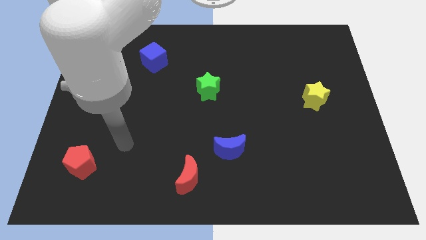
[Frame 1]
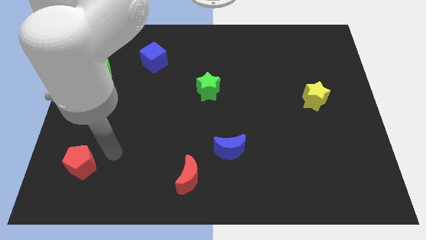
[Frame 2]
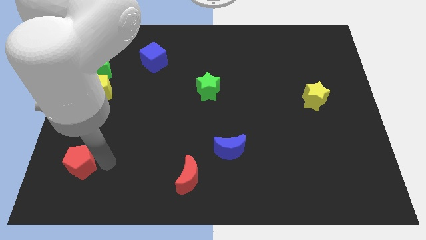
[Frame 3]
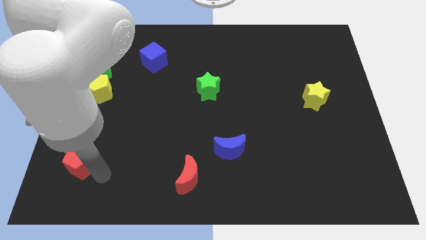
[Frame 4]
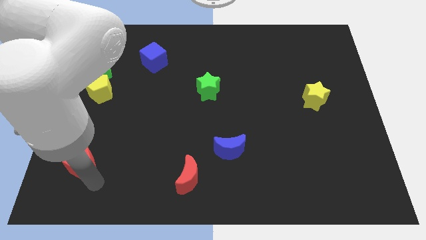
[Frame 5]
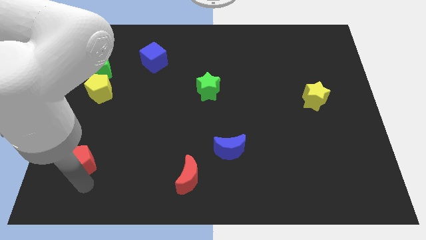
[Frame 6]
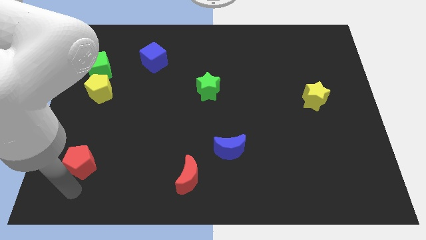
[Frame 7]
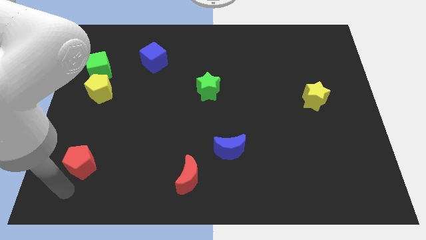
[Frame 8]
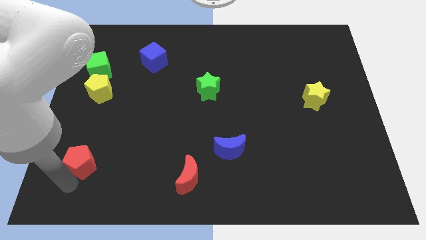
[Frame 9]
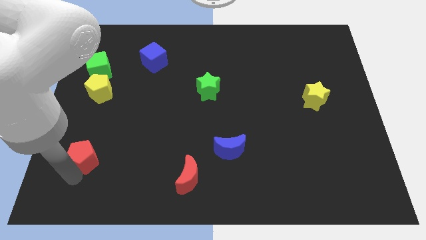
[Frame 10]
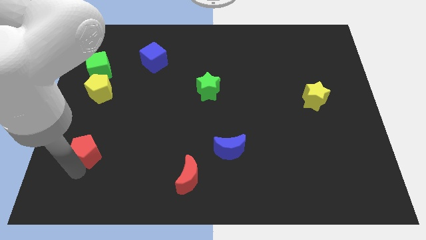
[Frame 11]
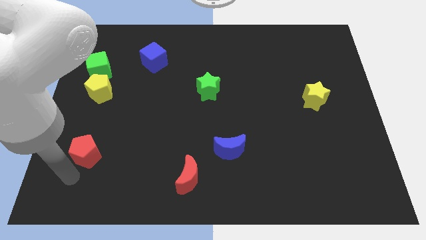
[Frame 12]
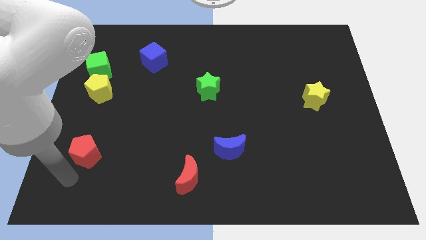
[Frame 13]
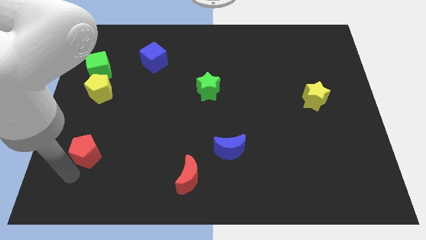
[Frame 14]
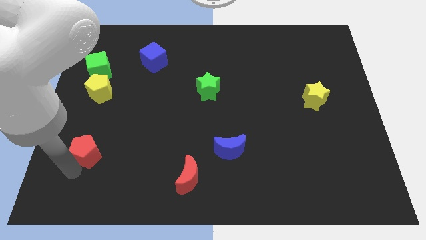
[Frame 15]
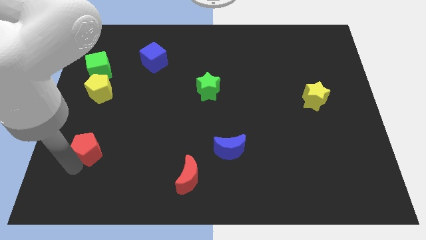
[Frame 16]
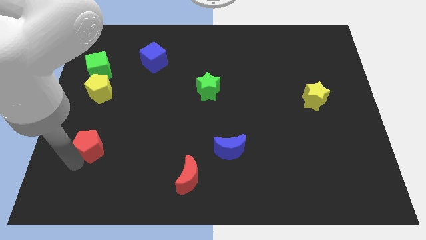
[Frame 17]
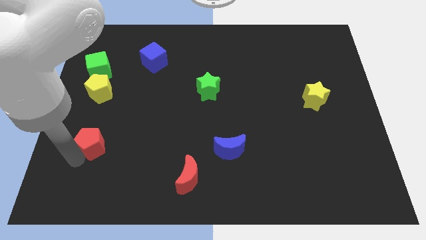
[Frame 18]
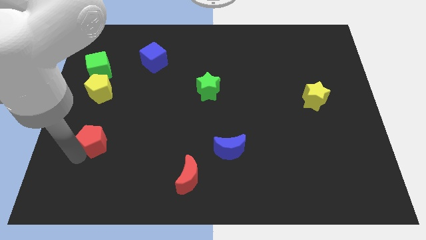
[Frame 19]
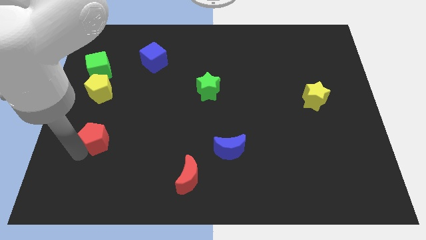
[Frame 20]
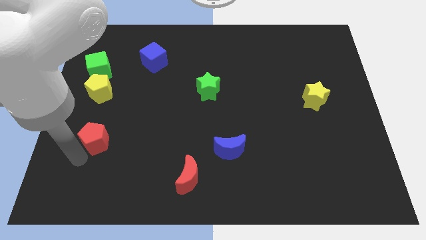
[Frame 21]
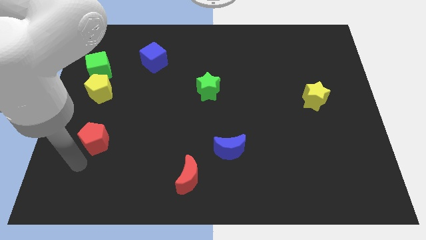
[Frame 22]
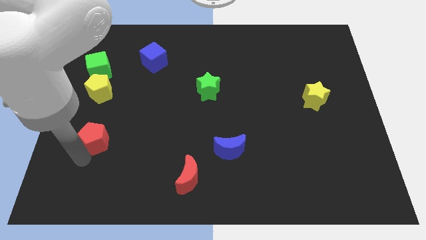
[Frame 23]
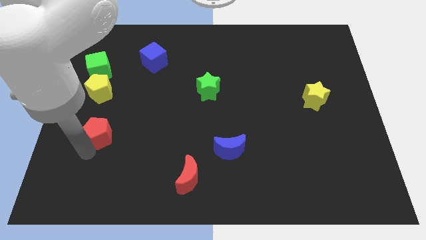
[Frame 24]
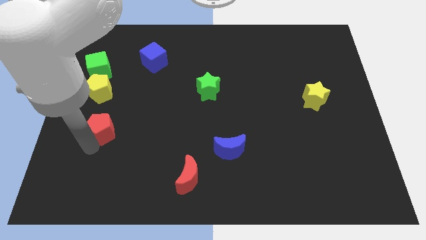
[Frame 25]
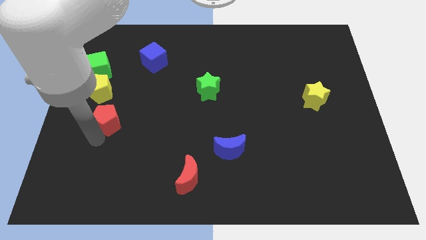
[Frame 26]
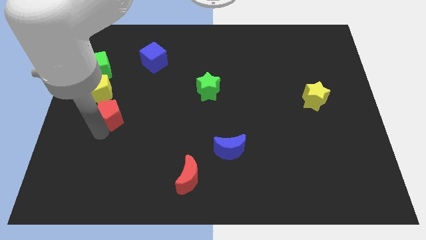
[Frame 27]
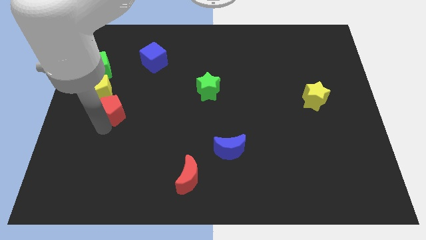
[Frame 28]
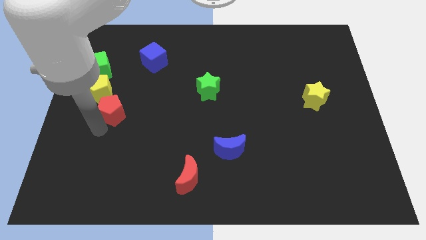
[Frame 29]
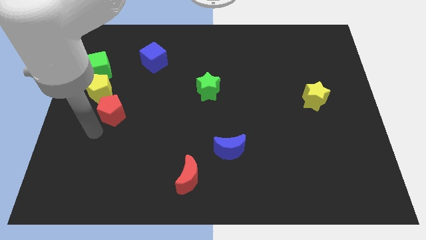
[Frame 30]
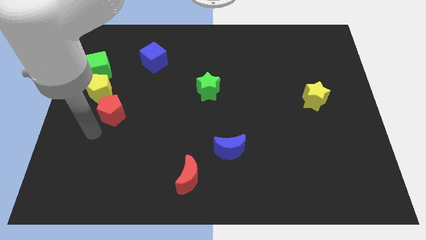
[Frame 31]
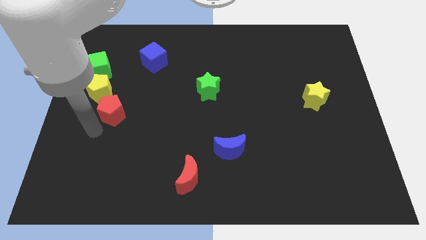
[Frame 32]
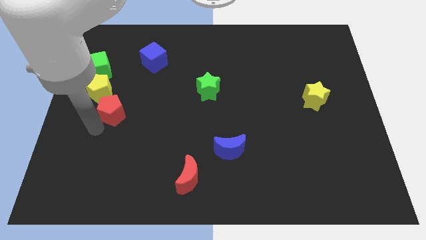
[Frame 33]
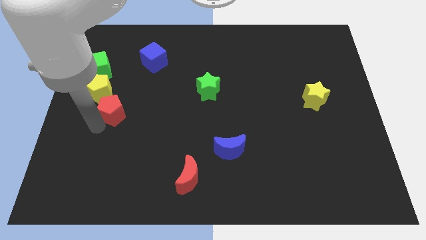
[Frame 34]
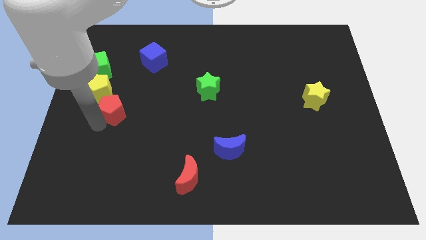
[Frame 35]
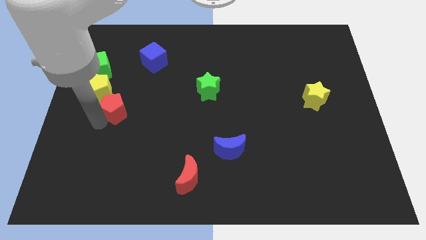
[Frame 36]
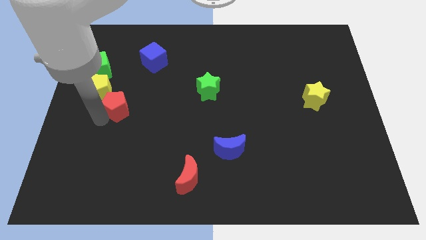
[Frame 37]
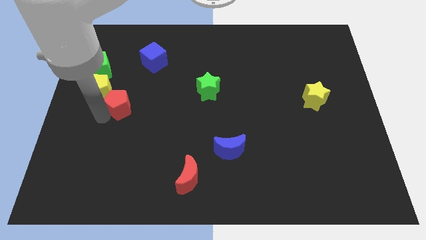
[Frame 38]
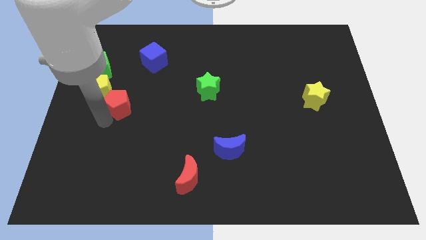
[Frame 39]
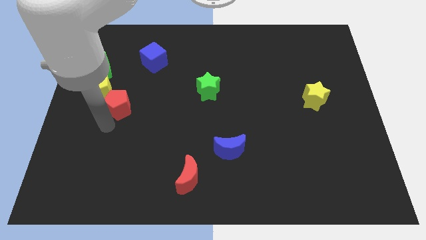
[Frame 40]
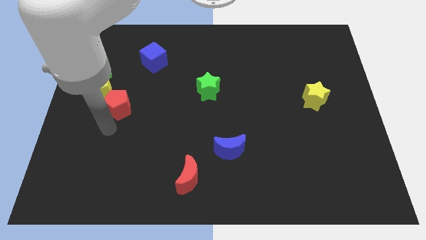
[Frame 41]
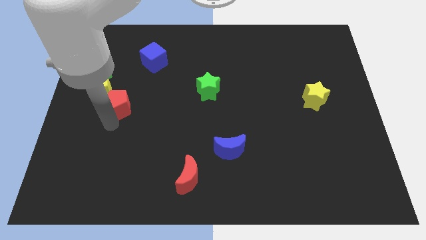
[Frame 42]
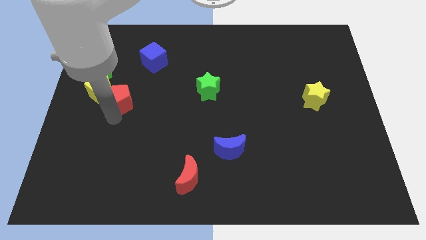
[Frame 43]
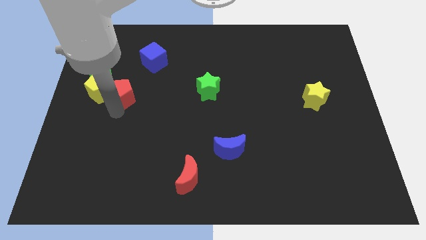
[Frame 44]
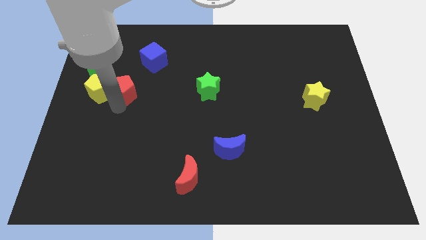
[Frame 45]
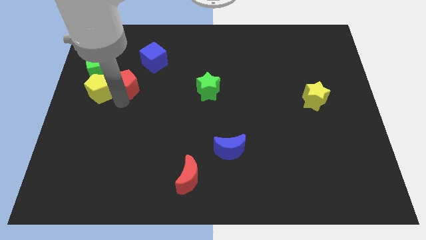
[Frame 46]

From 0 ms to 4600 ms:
move the red pentagon up

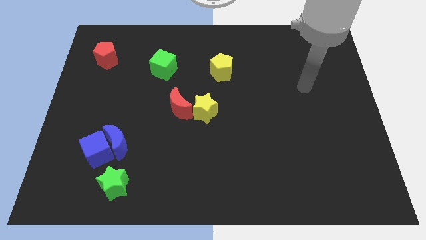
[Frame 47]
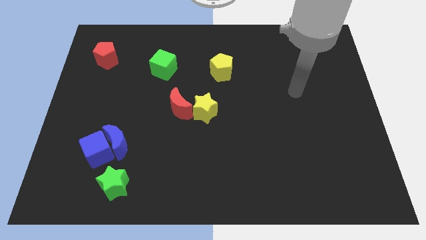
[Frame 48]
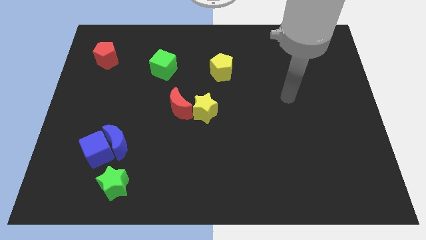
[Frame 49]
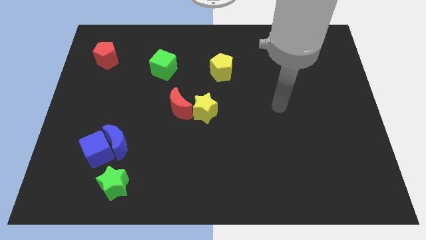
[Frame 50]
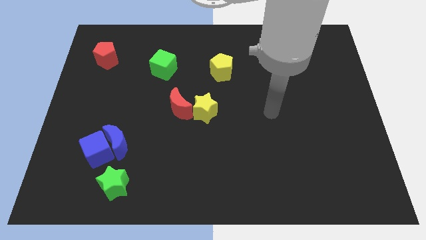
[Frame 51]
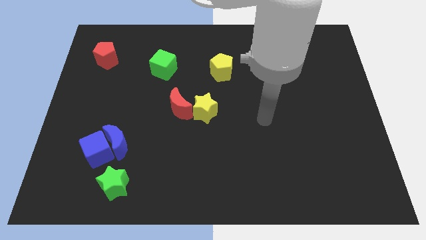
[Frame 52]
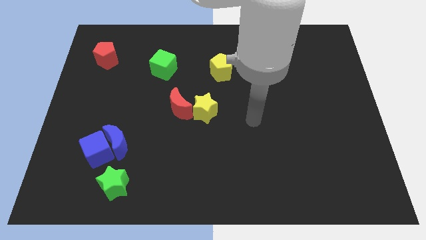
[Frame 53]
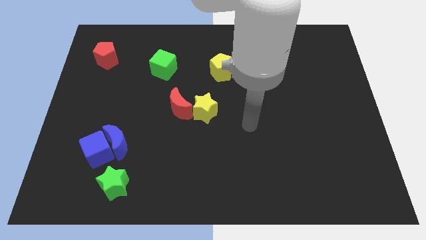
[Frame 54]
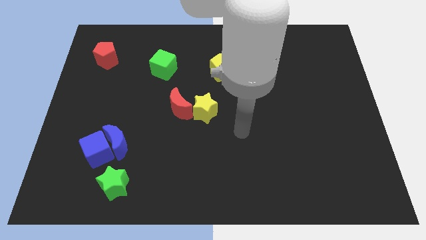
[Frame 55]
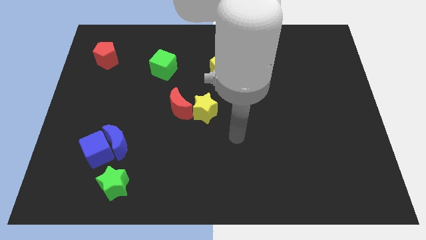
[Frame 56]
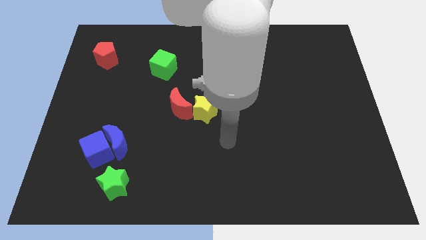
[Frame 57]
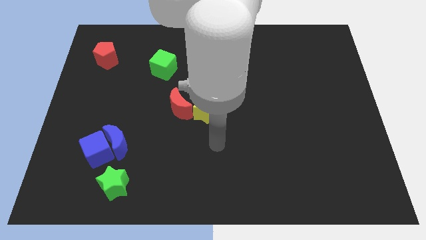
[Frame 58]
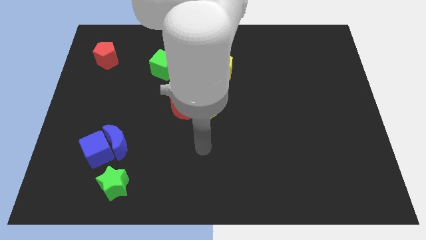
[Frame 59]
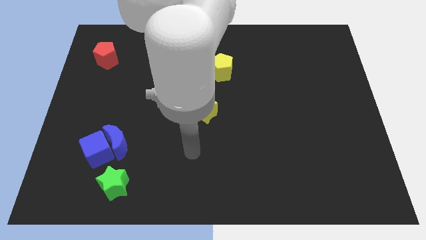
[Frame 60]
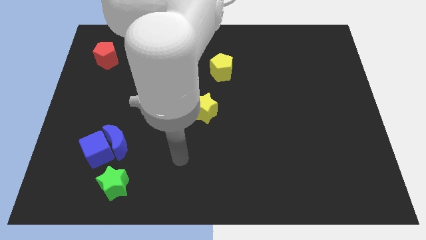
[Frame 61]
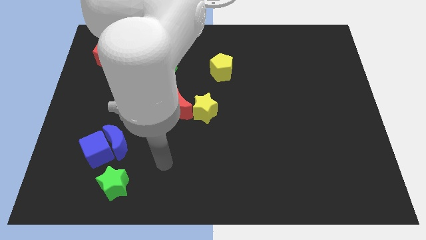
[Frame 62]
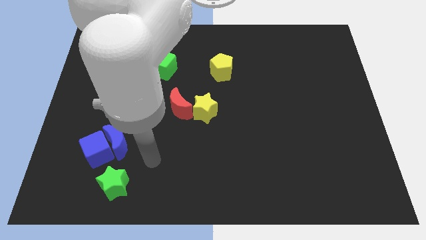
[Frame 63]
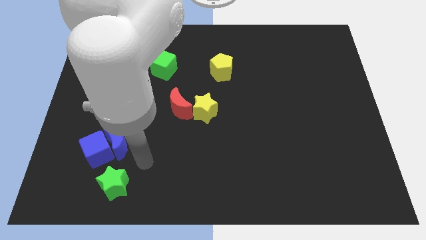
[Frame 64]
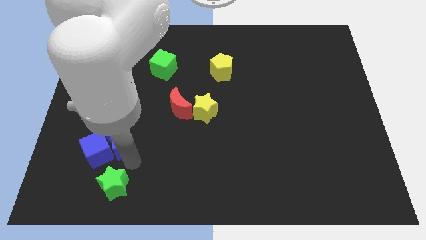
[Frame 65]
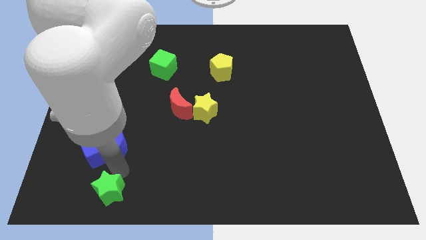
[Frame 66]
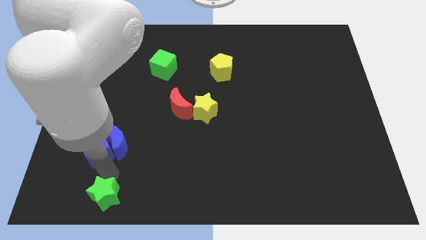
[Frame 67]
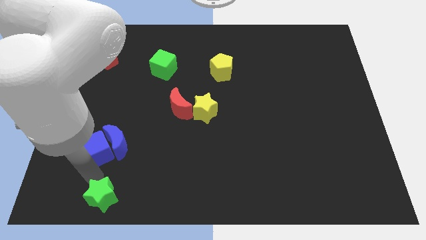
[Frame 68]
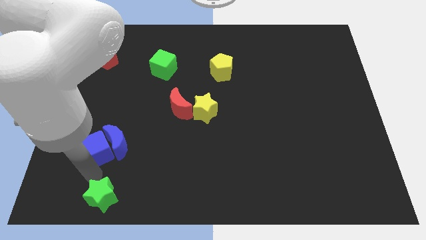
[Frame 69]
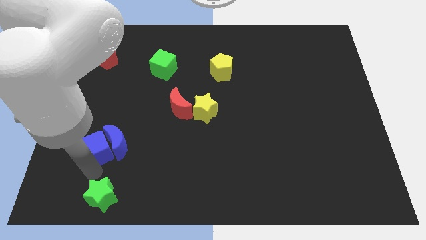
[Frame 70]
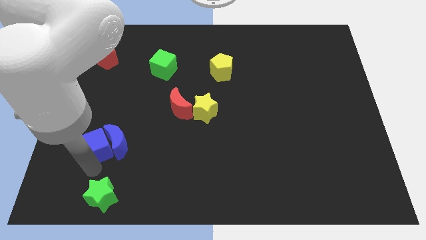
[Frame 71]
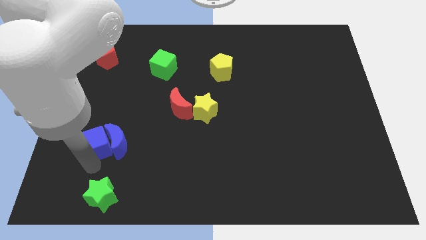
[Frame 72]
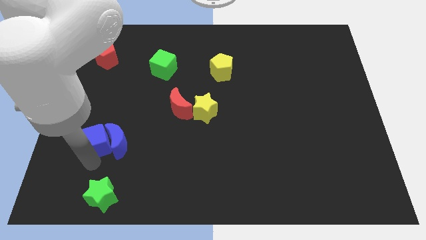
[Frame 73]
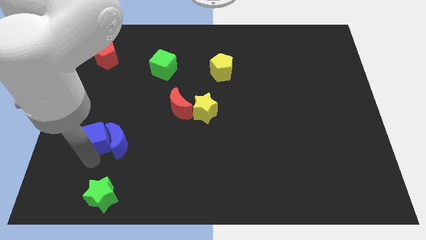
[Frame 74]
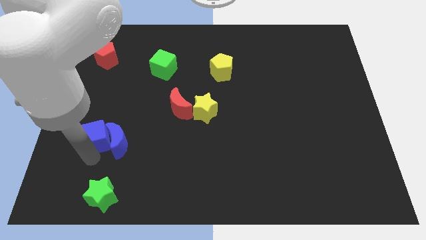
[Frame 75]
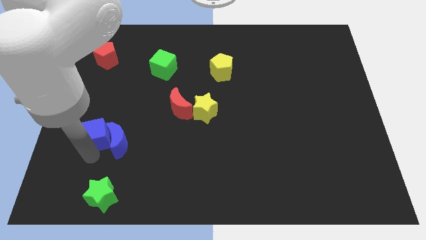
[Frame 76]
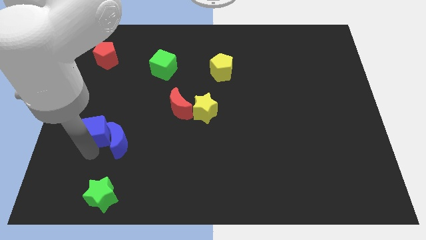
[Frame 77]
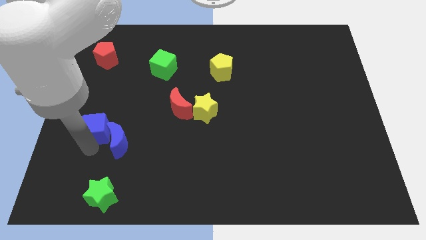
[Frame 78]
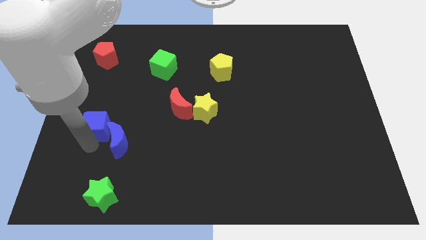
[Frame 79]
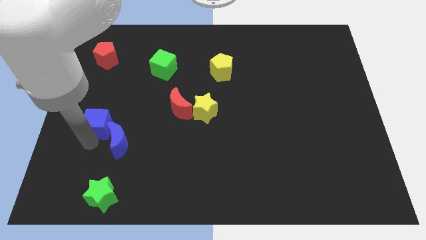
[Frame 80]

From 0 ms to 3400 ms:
slightly push the blue cube upwards

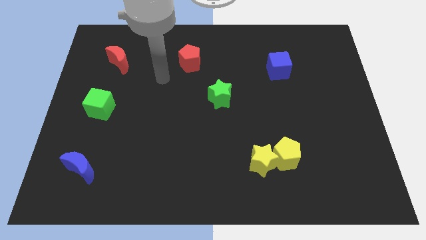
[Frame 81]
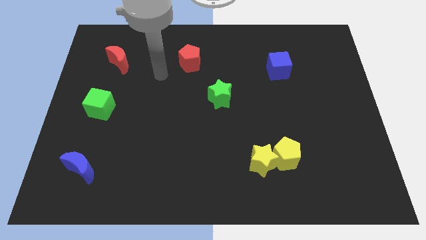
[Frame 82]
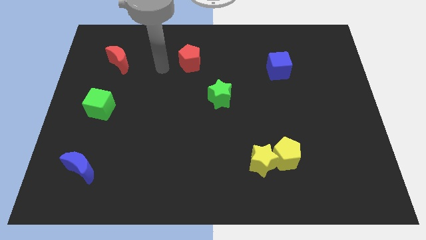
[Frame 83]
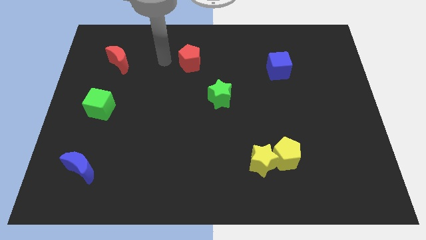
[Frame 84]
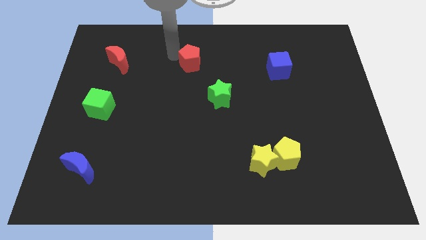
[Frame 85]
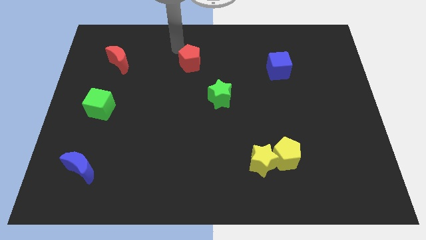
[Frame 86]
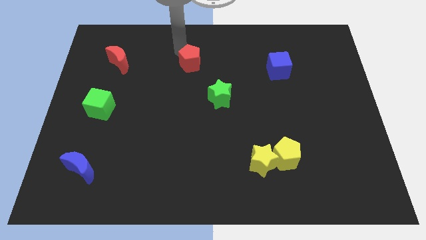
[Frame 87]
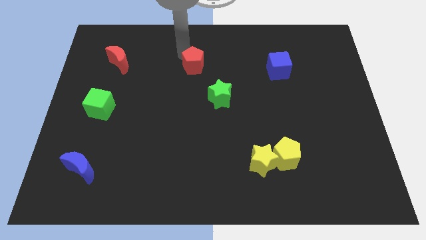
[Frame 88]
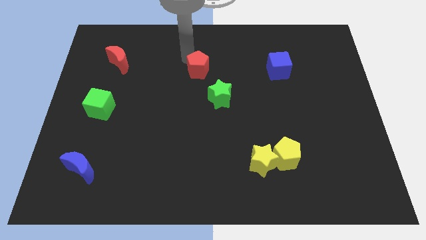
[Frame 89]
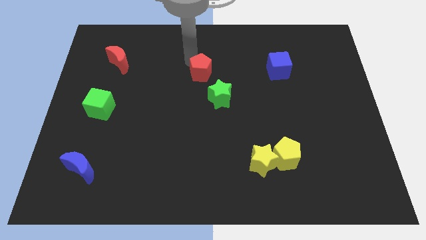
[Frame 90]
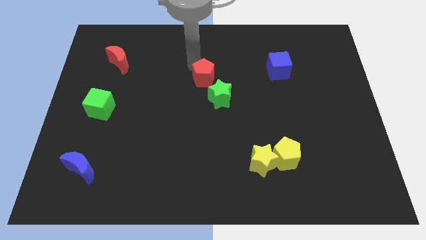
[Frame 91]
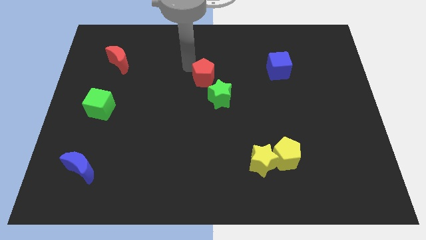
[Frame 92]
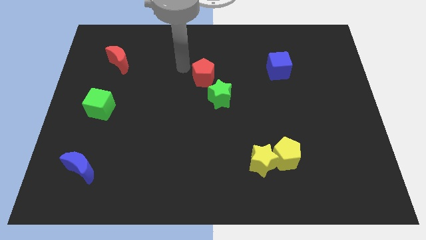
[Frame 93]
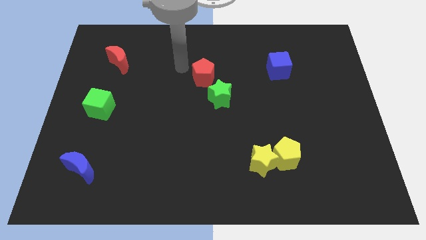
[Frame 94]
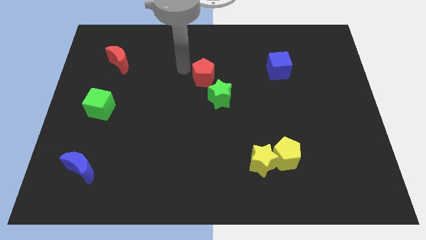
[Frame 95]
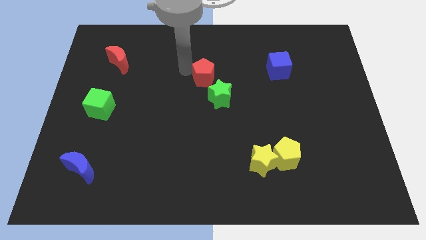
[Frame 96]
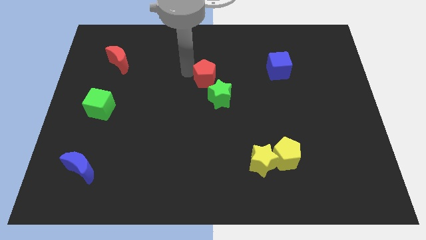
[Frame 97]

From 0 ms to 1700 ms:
push the red pentagon downwards and then to the right a little
